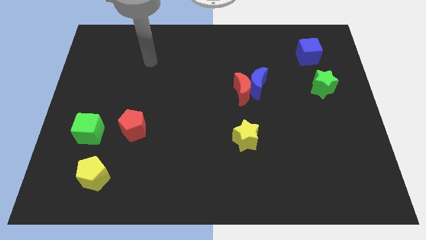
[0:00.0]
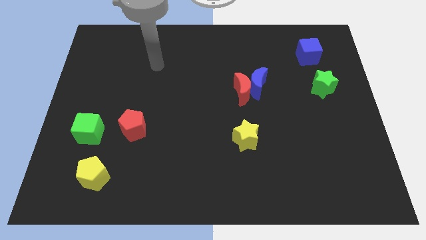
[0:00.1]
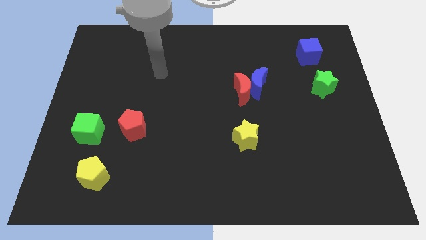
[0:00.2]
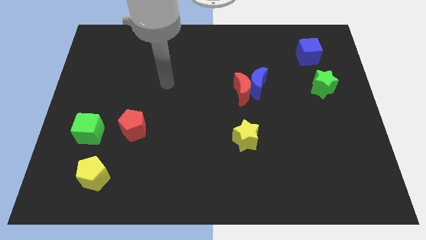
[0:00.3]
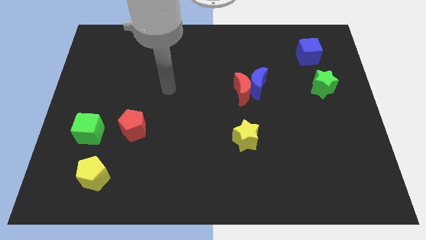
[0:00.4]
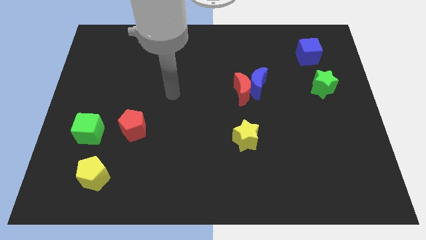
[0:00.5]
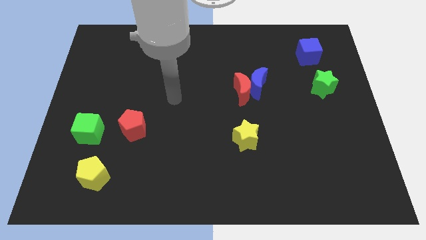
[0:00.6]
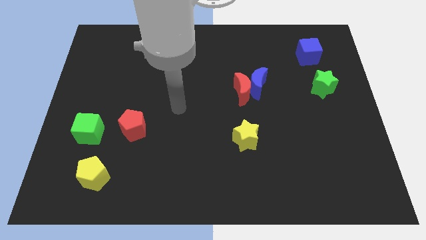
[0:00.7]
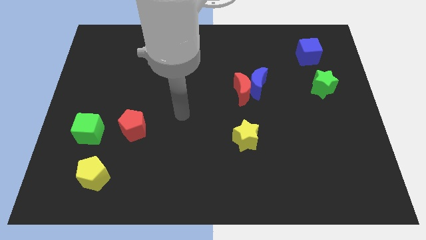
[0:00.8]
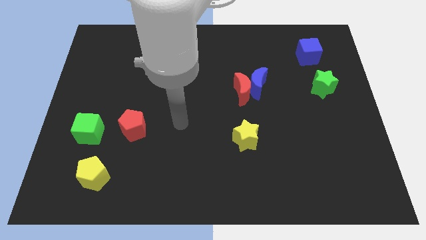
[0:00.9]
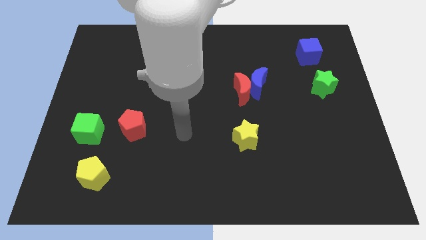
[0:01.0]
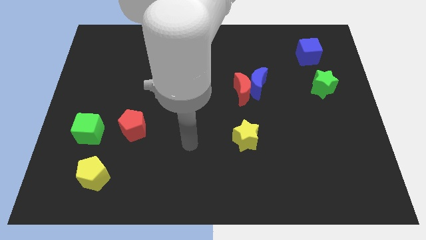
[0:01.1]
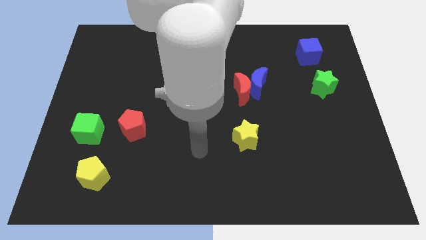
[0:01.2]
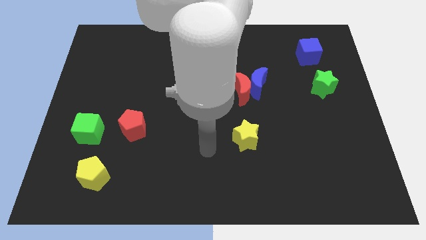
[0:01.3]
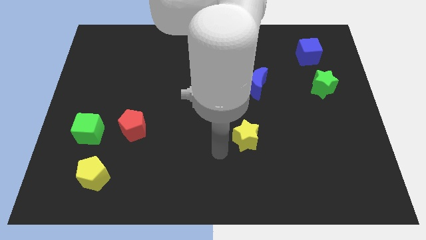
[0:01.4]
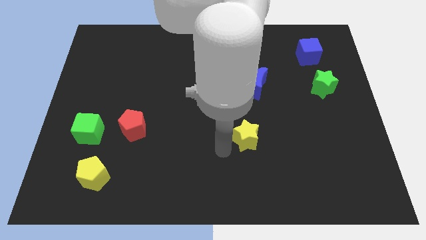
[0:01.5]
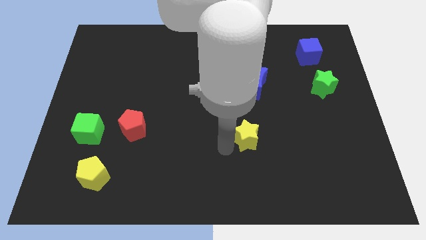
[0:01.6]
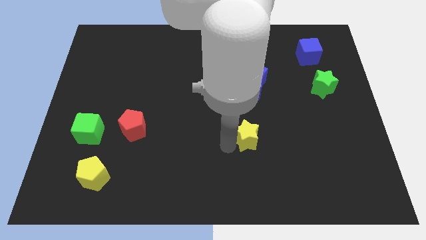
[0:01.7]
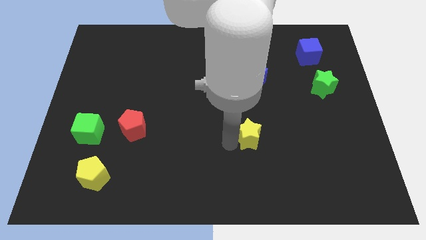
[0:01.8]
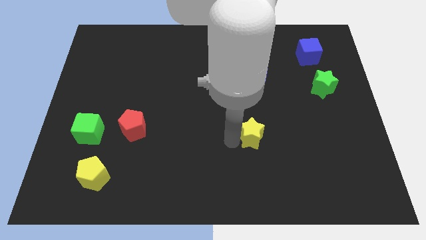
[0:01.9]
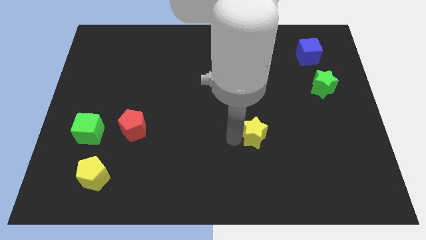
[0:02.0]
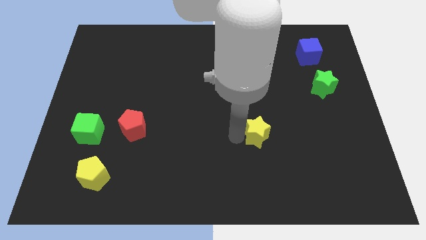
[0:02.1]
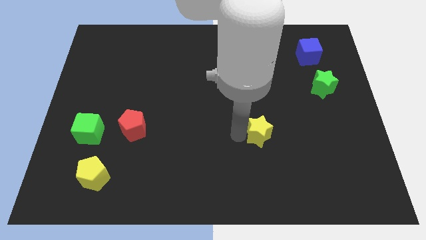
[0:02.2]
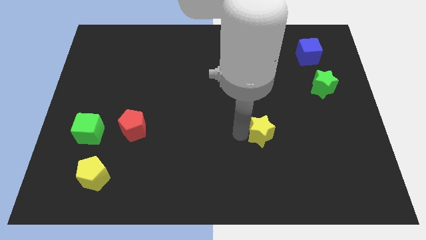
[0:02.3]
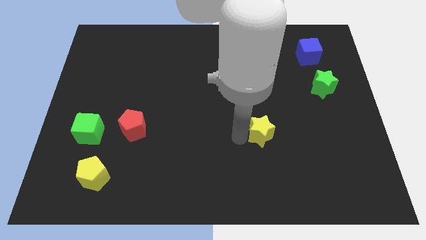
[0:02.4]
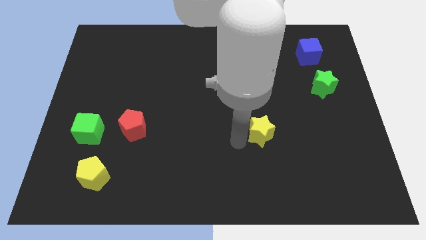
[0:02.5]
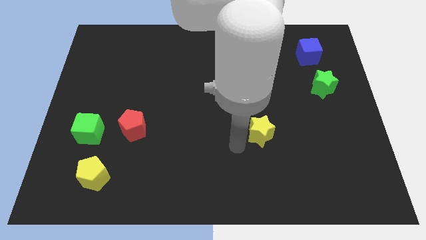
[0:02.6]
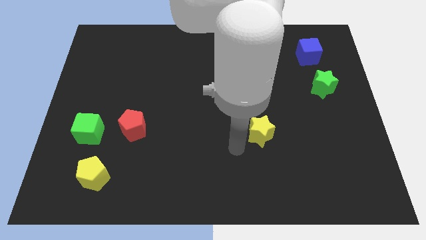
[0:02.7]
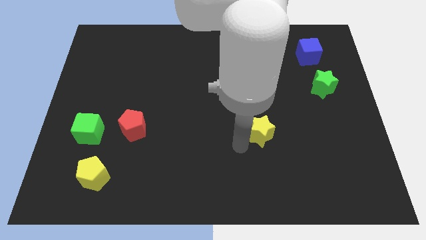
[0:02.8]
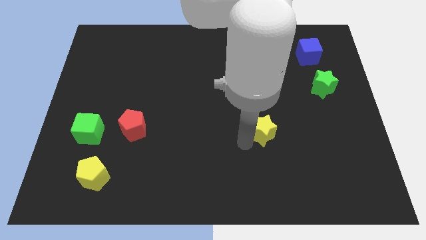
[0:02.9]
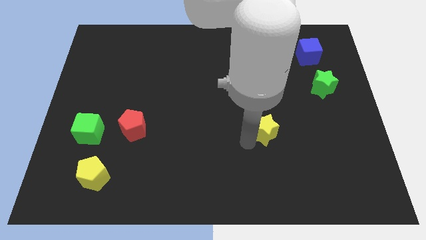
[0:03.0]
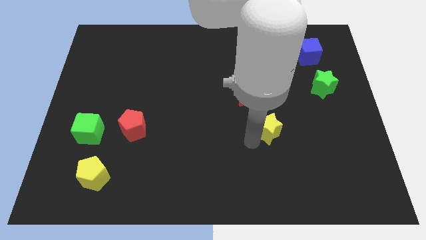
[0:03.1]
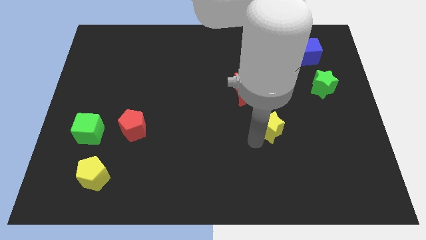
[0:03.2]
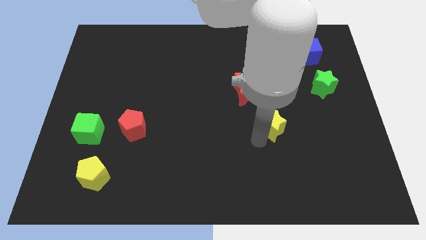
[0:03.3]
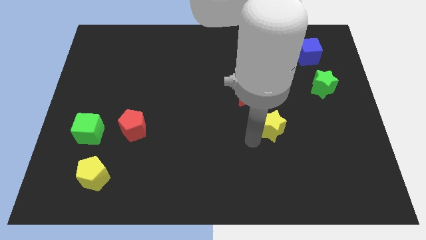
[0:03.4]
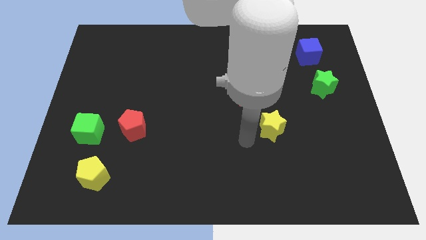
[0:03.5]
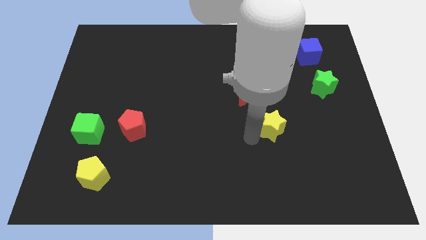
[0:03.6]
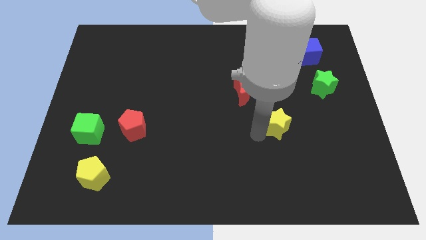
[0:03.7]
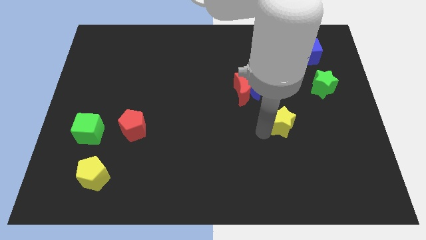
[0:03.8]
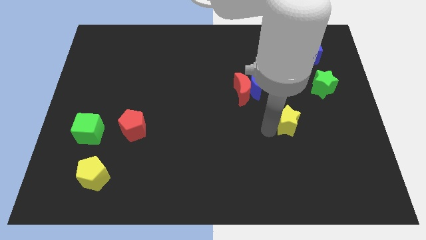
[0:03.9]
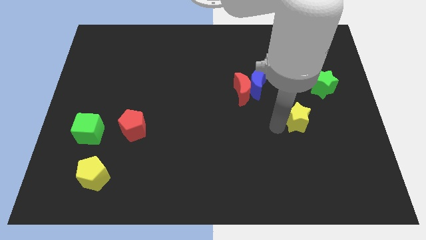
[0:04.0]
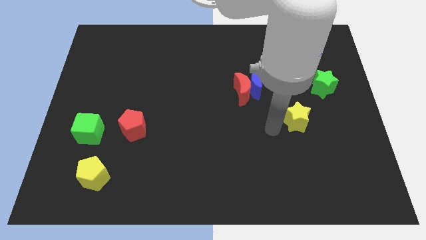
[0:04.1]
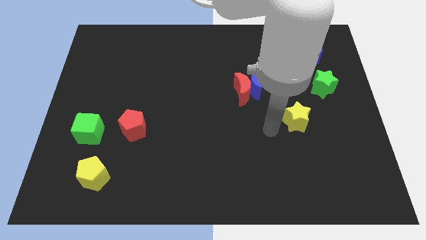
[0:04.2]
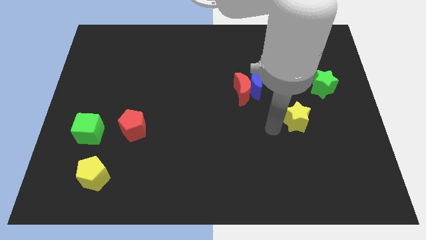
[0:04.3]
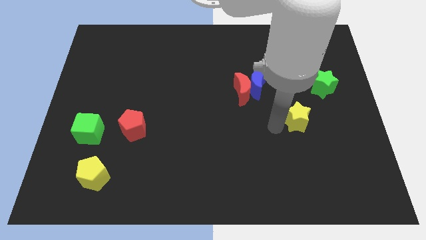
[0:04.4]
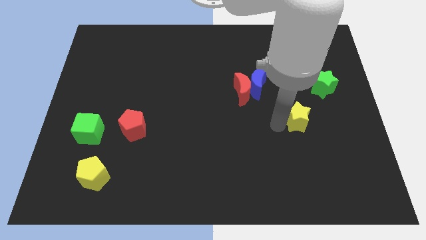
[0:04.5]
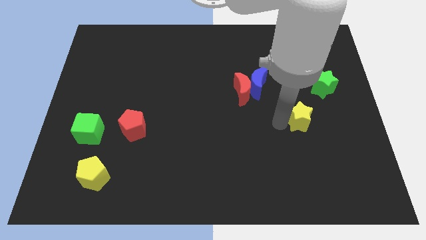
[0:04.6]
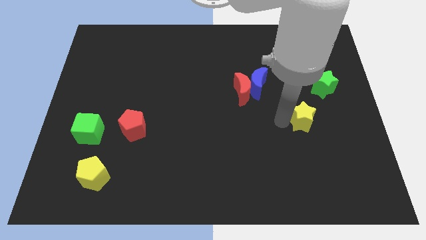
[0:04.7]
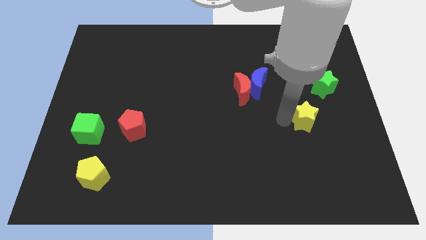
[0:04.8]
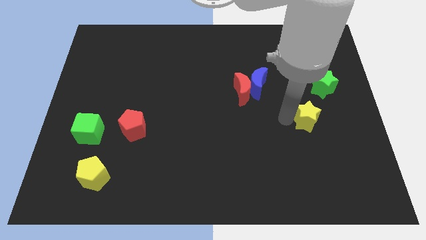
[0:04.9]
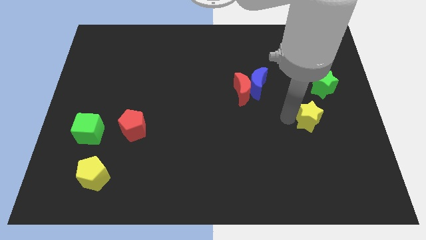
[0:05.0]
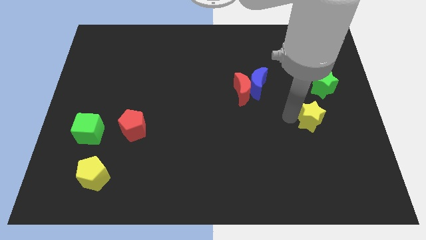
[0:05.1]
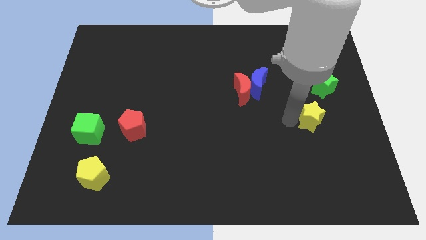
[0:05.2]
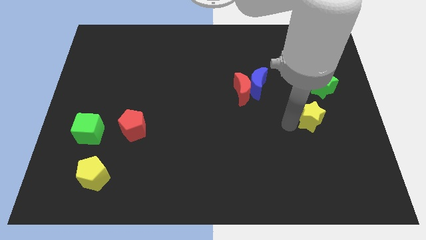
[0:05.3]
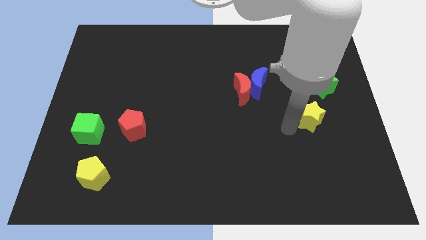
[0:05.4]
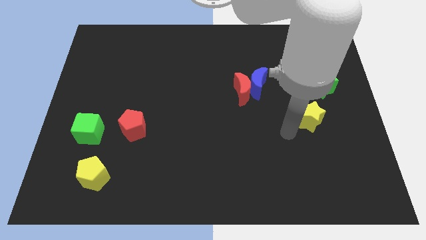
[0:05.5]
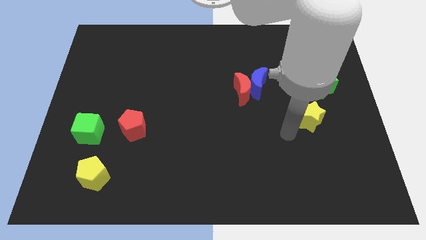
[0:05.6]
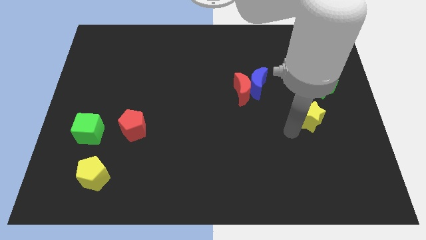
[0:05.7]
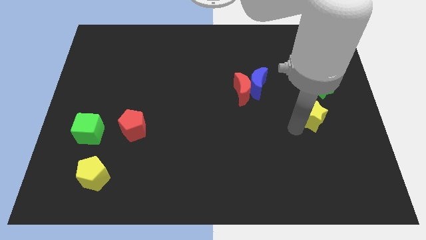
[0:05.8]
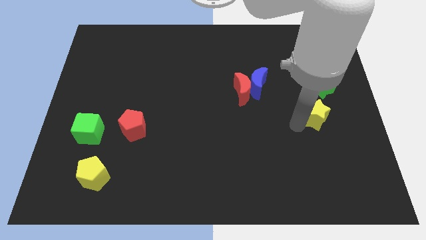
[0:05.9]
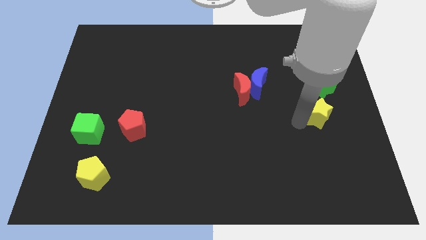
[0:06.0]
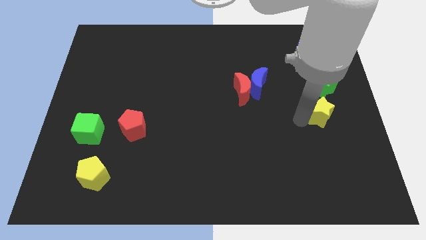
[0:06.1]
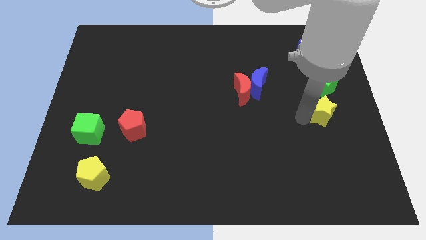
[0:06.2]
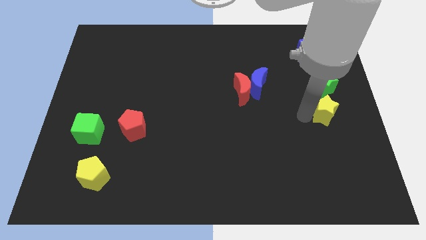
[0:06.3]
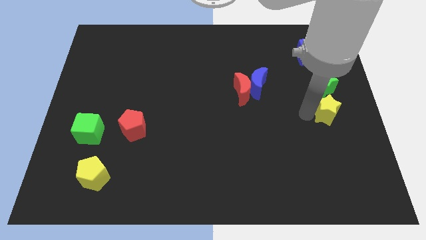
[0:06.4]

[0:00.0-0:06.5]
slide the yellow star to the right side

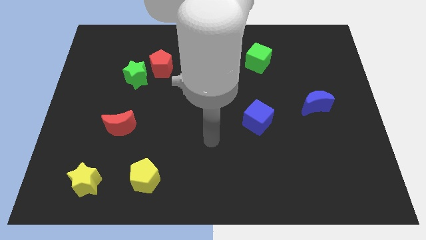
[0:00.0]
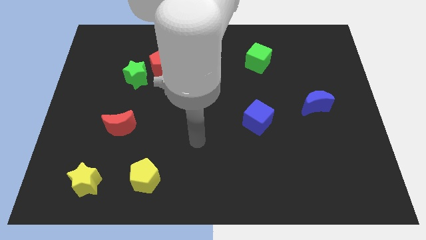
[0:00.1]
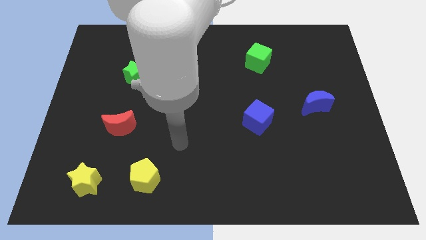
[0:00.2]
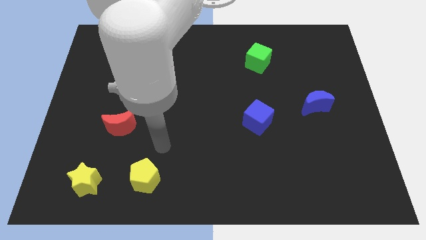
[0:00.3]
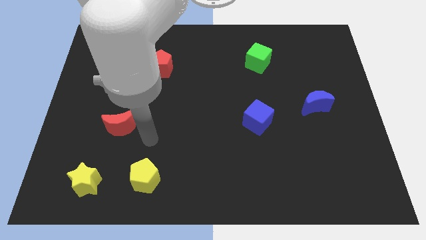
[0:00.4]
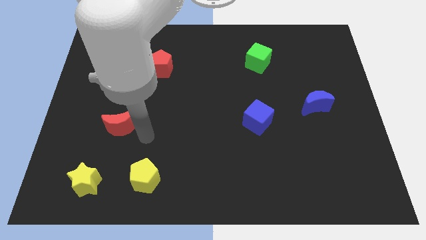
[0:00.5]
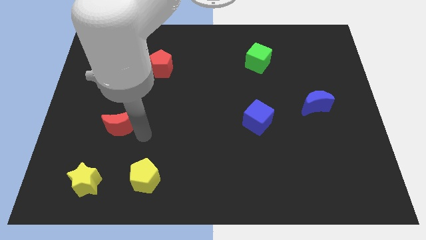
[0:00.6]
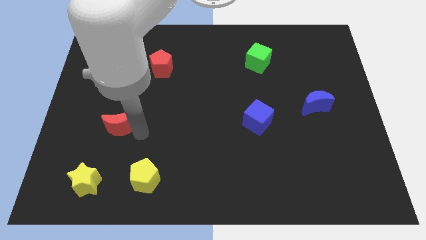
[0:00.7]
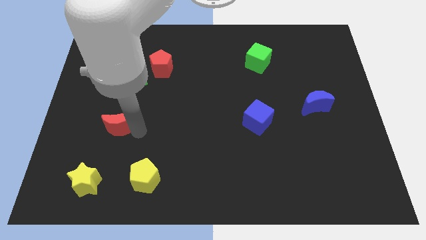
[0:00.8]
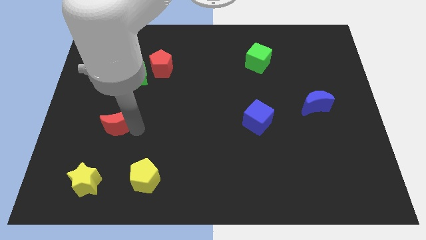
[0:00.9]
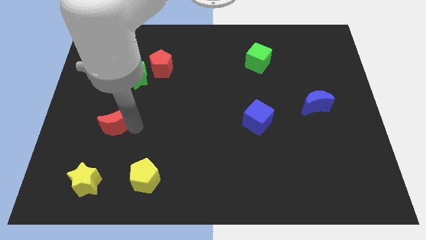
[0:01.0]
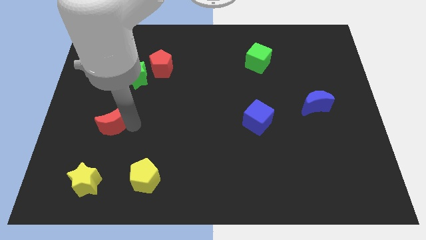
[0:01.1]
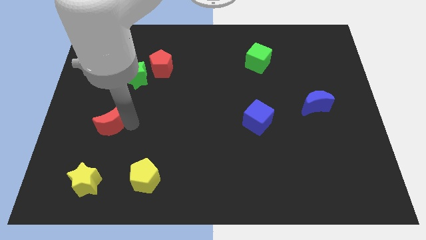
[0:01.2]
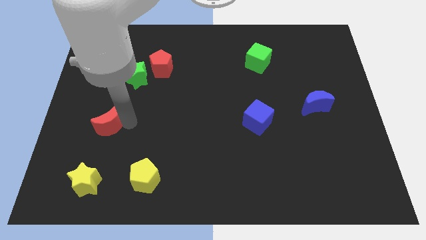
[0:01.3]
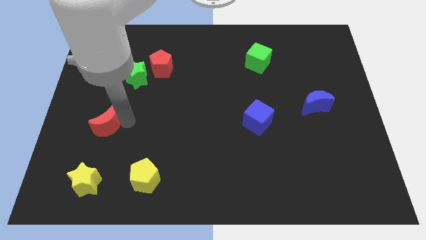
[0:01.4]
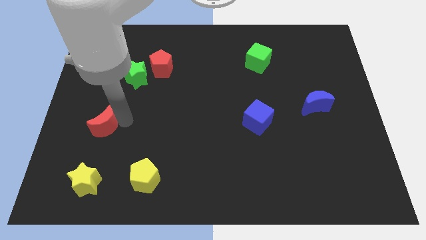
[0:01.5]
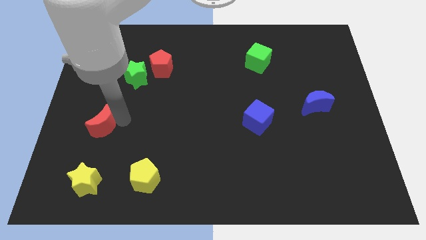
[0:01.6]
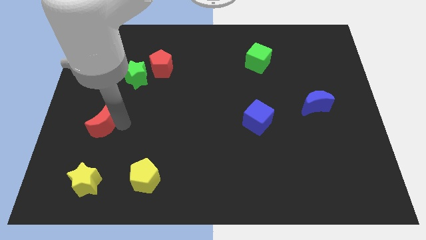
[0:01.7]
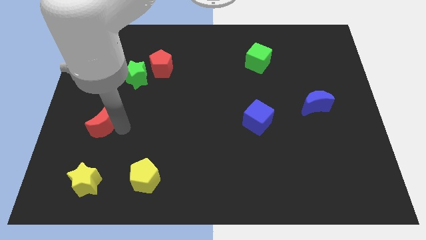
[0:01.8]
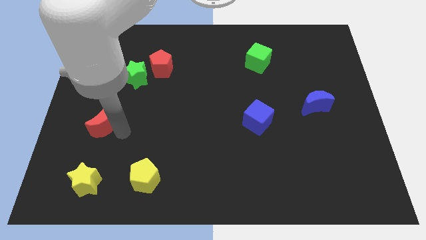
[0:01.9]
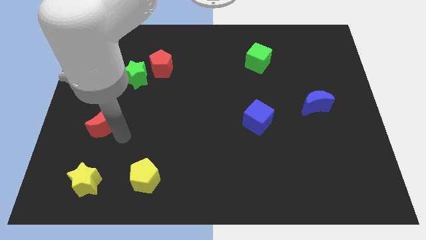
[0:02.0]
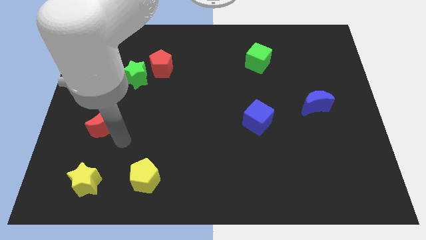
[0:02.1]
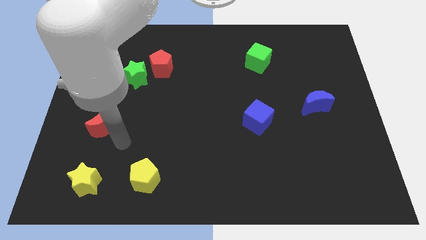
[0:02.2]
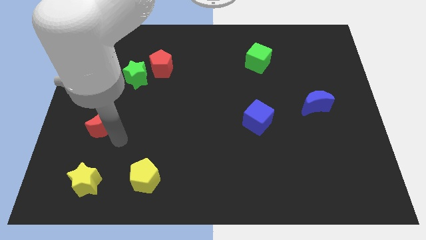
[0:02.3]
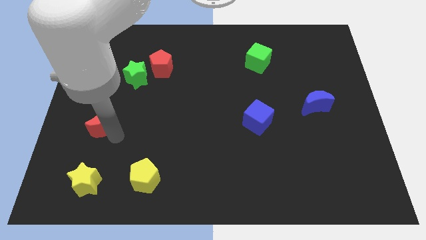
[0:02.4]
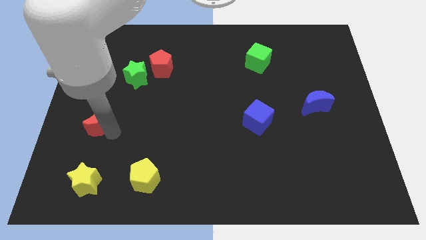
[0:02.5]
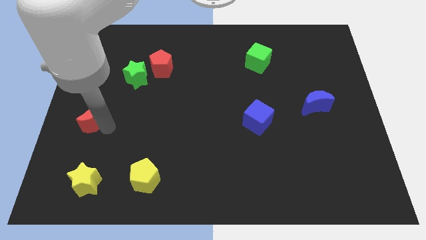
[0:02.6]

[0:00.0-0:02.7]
slide the red moon to the left side
